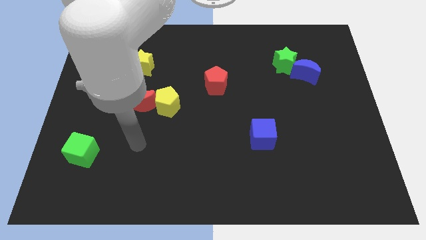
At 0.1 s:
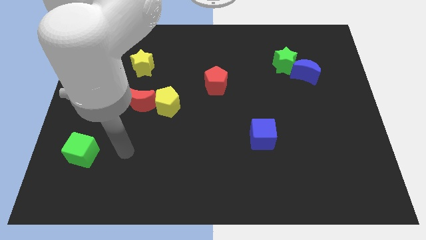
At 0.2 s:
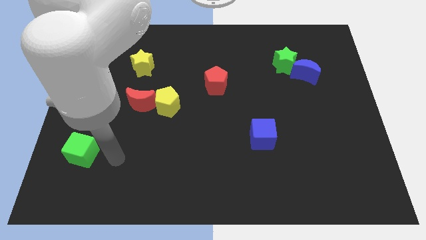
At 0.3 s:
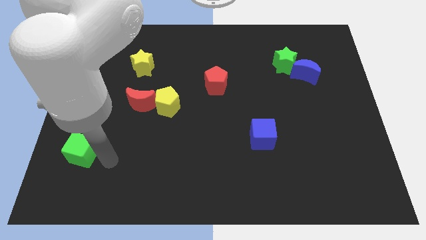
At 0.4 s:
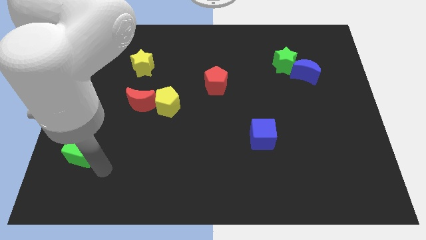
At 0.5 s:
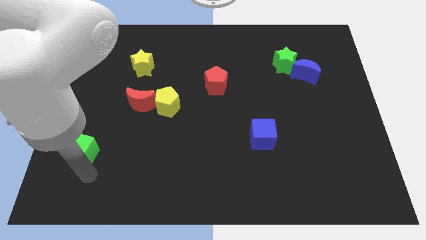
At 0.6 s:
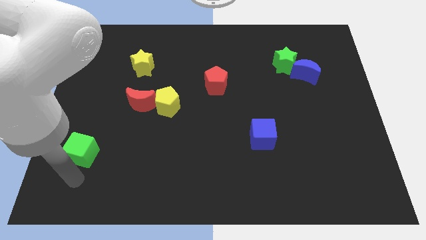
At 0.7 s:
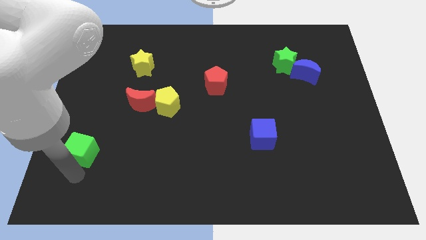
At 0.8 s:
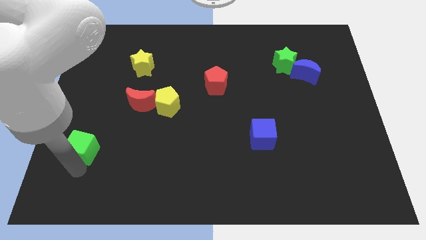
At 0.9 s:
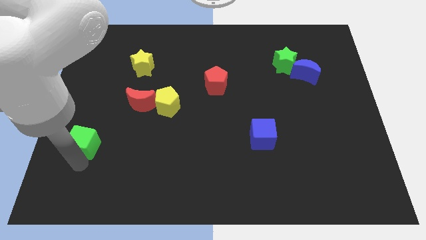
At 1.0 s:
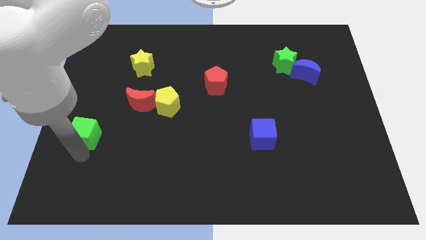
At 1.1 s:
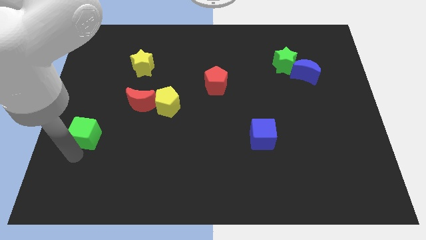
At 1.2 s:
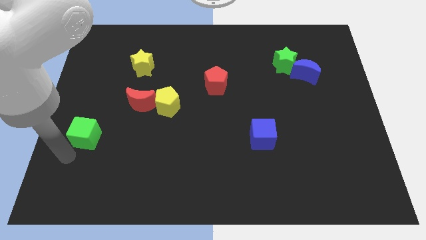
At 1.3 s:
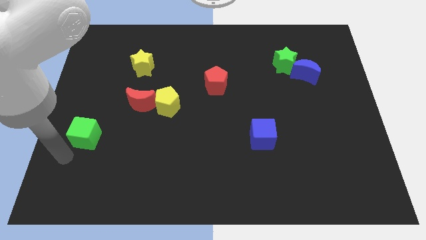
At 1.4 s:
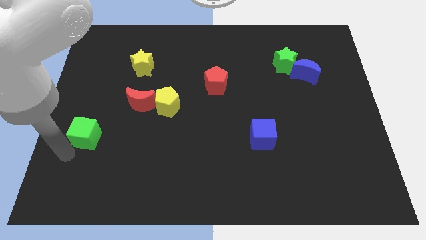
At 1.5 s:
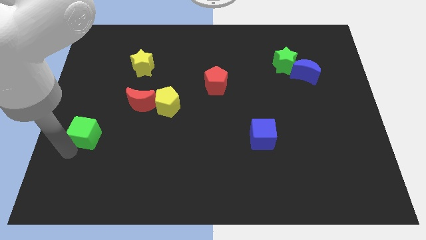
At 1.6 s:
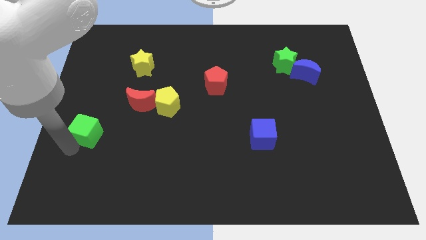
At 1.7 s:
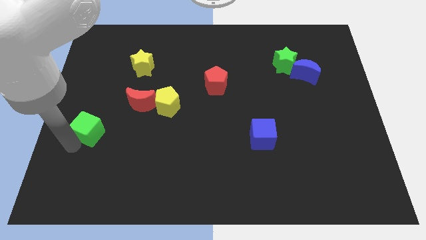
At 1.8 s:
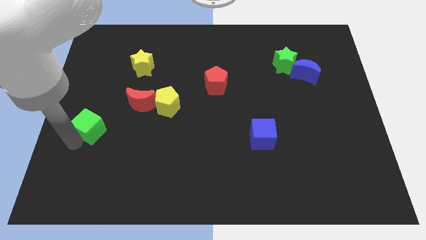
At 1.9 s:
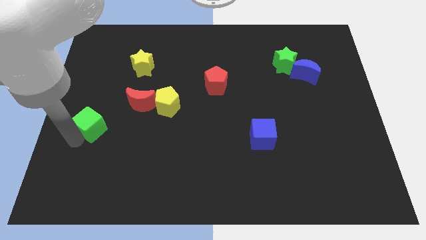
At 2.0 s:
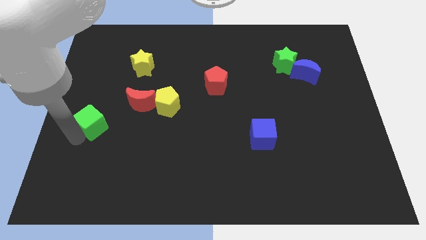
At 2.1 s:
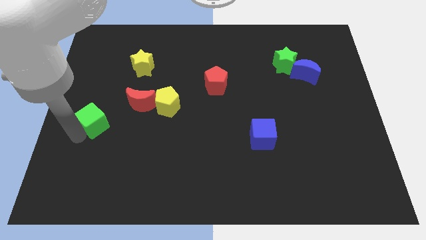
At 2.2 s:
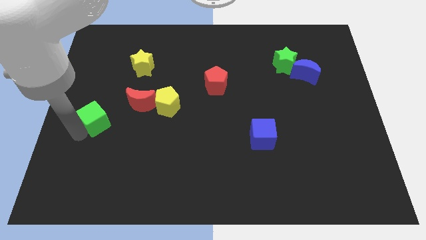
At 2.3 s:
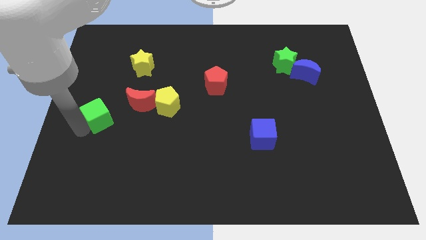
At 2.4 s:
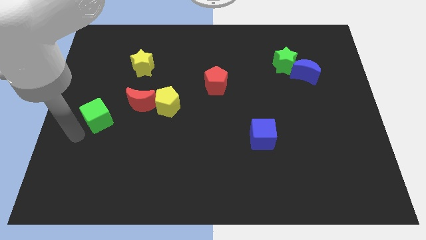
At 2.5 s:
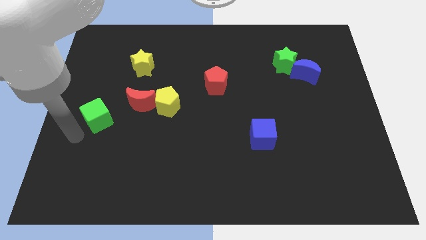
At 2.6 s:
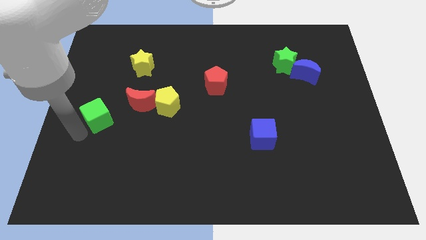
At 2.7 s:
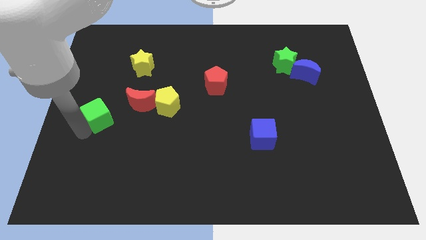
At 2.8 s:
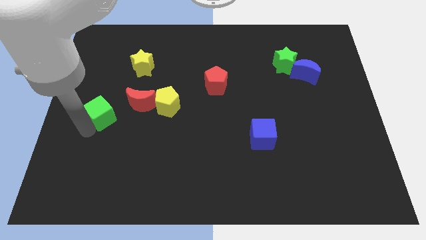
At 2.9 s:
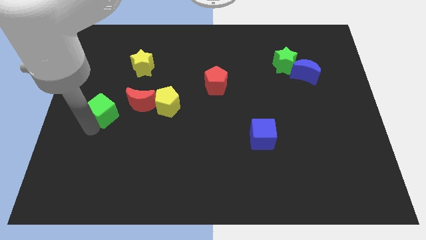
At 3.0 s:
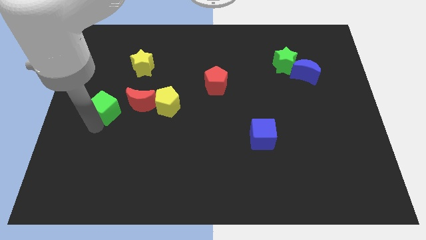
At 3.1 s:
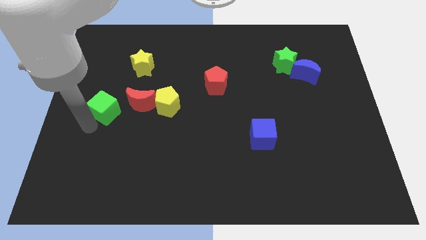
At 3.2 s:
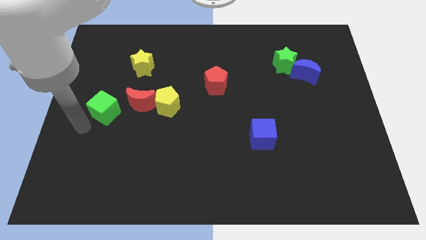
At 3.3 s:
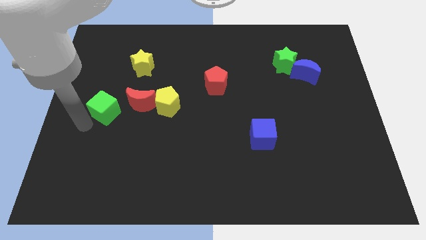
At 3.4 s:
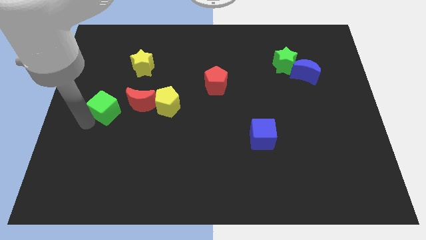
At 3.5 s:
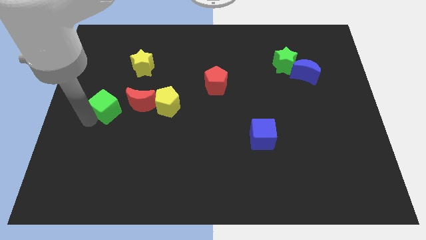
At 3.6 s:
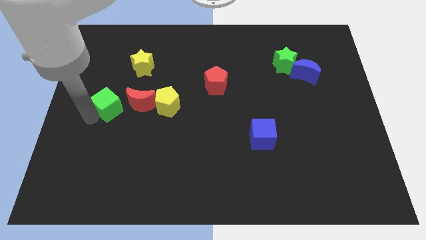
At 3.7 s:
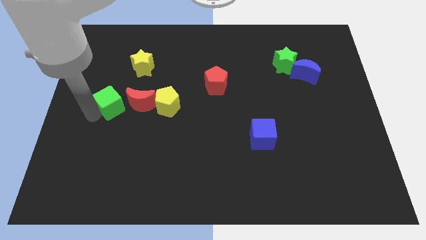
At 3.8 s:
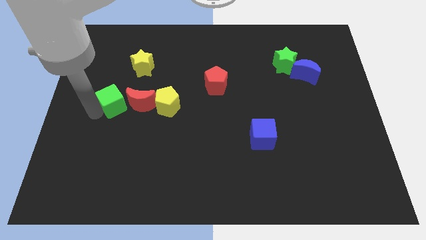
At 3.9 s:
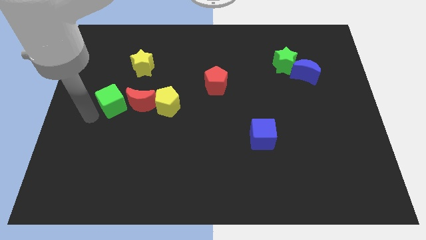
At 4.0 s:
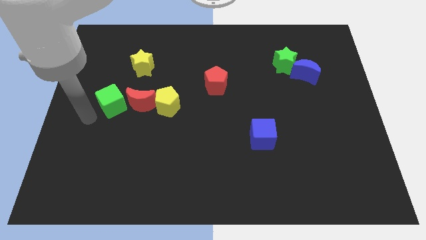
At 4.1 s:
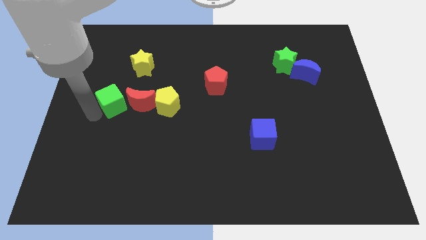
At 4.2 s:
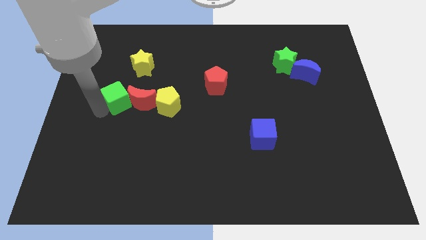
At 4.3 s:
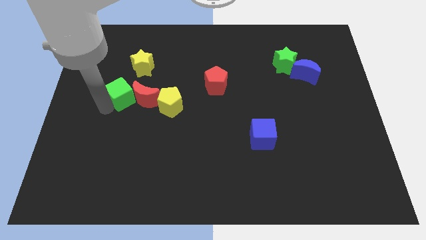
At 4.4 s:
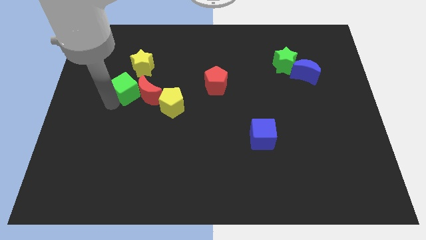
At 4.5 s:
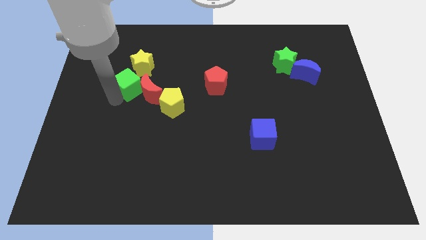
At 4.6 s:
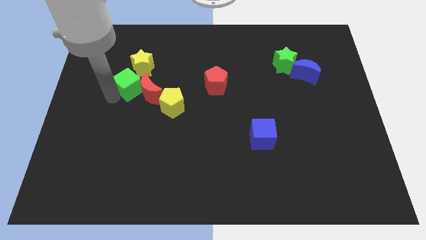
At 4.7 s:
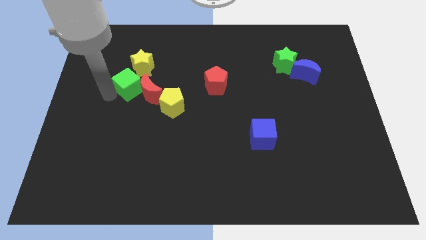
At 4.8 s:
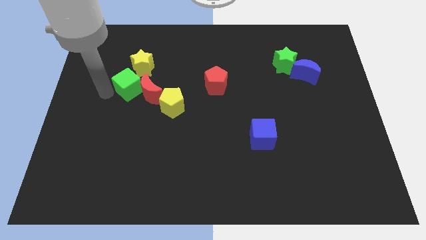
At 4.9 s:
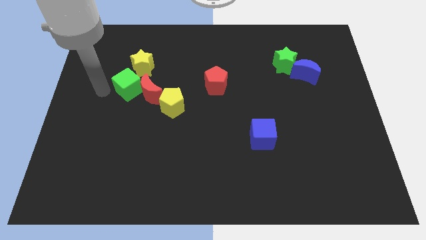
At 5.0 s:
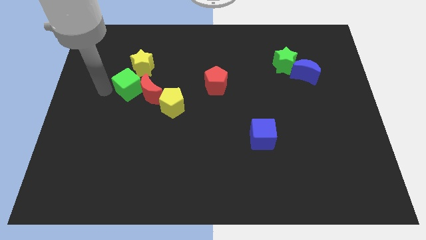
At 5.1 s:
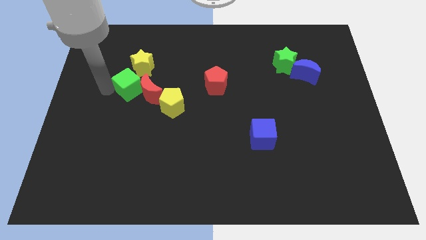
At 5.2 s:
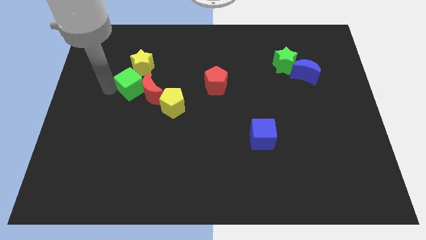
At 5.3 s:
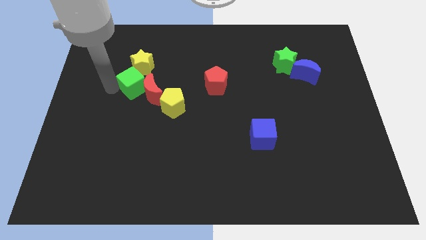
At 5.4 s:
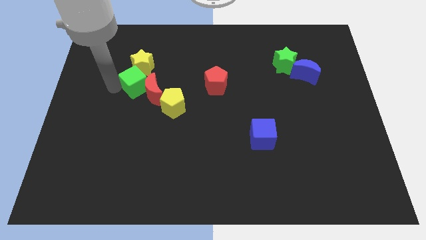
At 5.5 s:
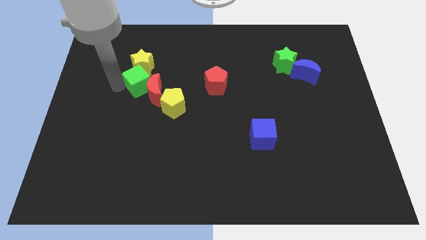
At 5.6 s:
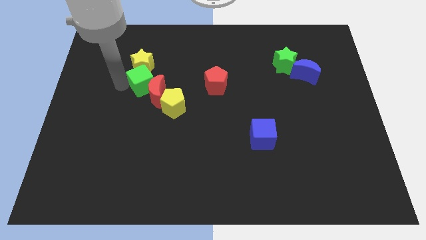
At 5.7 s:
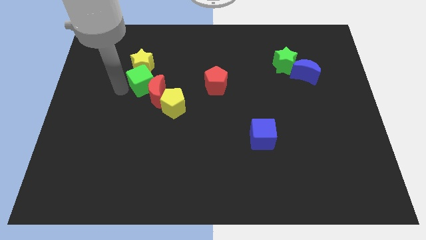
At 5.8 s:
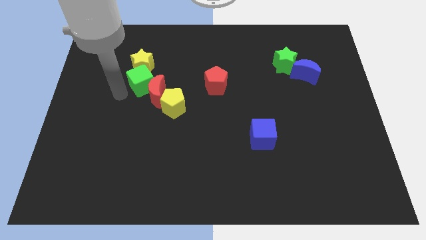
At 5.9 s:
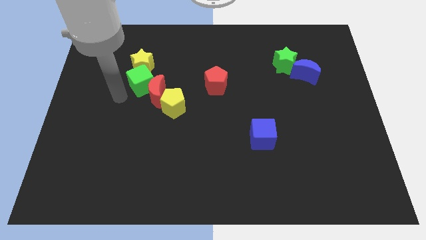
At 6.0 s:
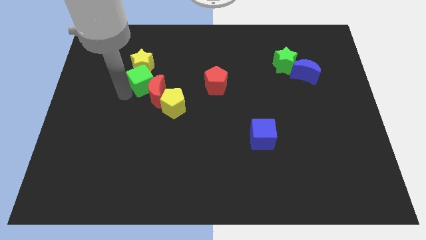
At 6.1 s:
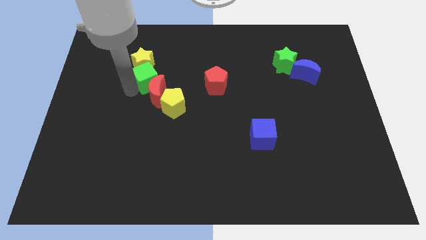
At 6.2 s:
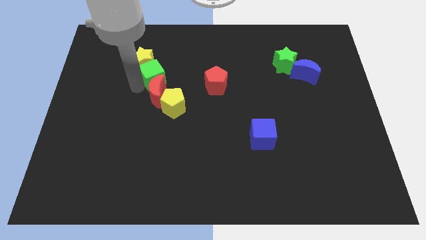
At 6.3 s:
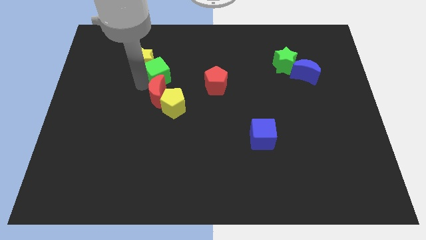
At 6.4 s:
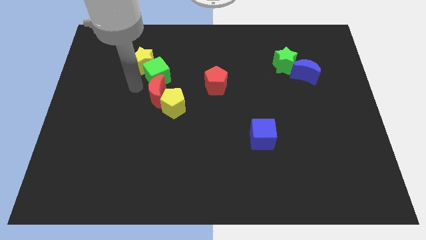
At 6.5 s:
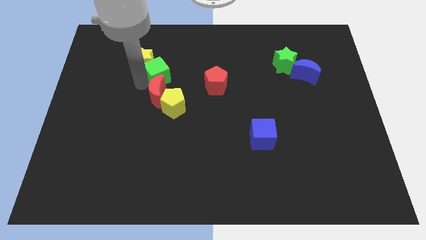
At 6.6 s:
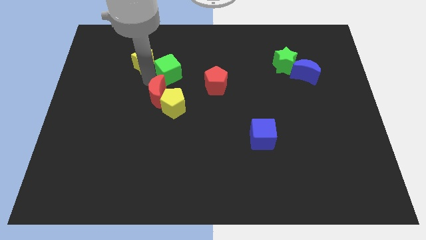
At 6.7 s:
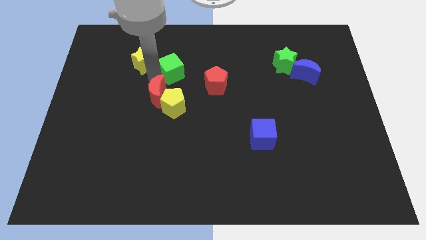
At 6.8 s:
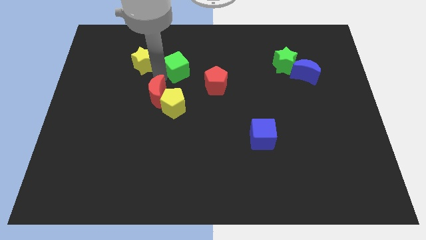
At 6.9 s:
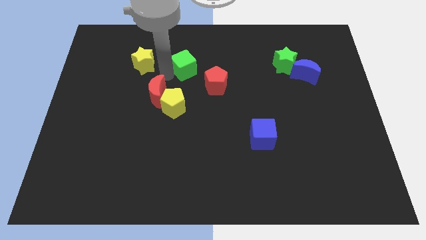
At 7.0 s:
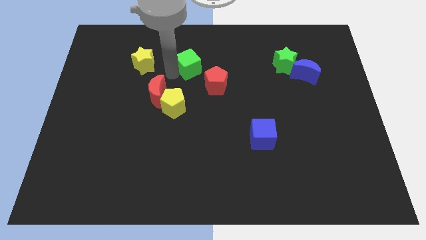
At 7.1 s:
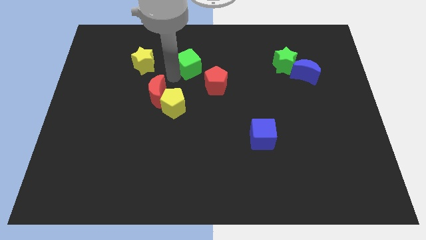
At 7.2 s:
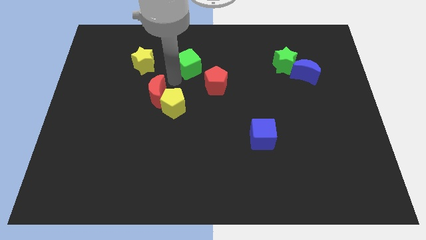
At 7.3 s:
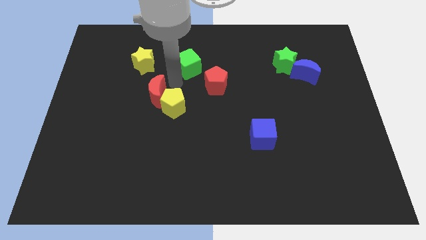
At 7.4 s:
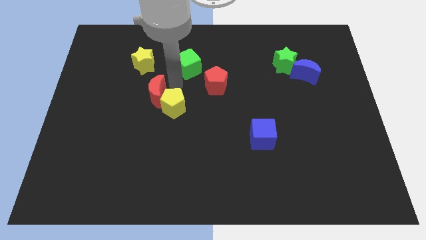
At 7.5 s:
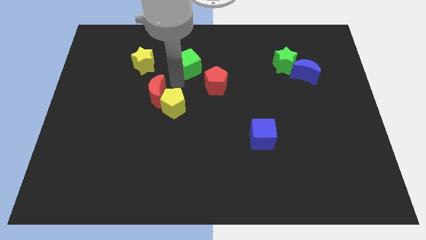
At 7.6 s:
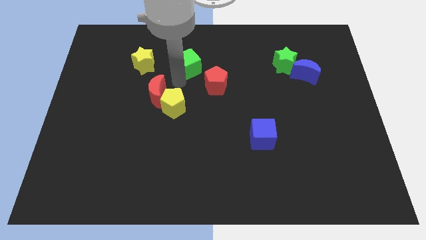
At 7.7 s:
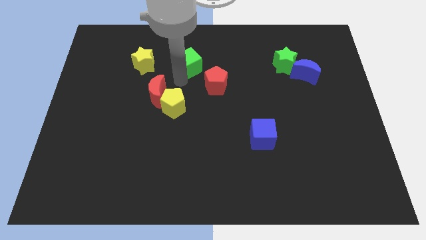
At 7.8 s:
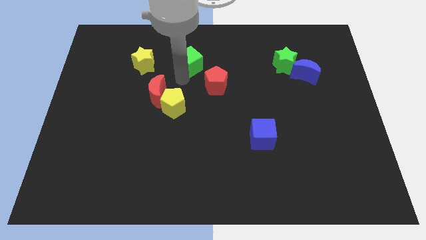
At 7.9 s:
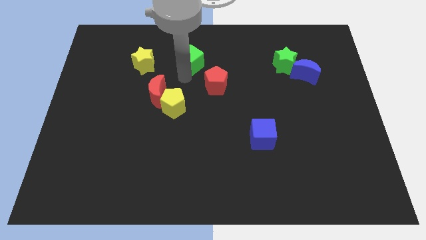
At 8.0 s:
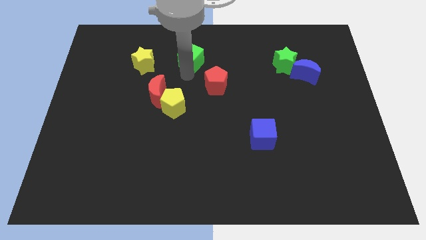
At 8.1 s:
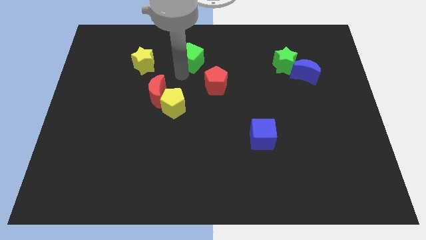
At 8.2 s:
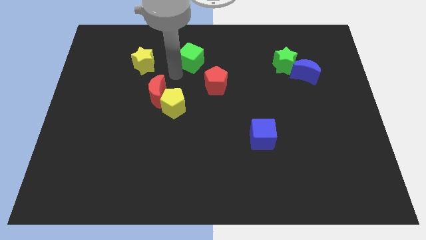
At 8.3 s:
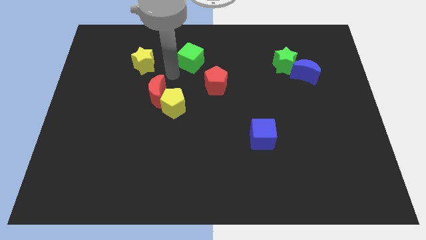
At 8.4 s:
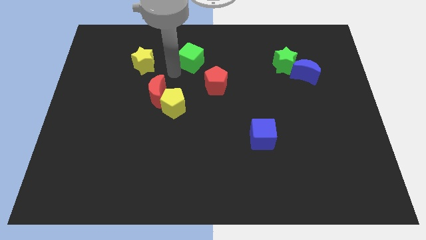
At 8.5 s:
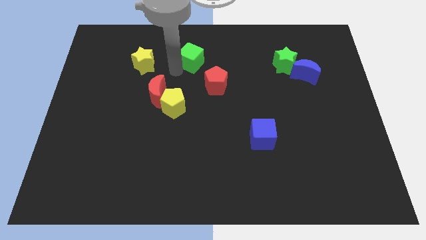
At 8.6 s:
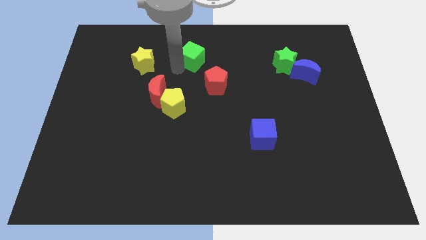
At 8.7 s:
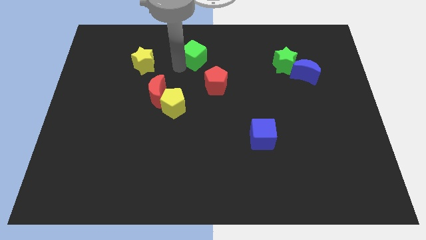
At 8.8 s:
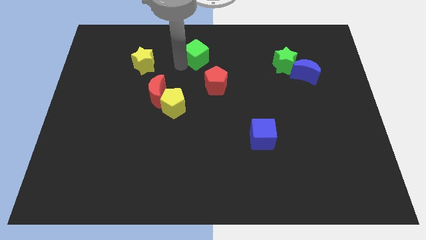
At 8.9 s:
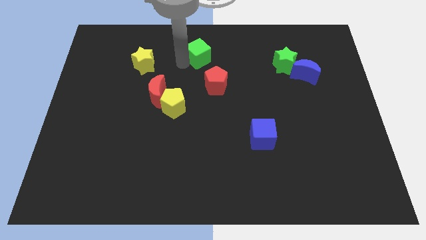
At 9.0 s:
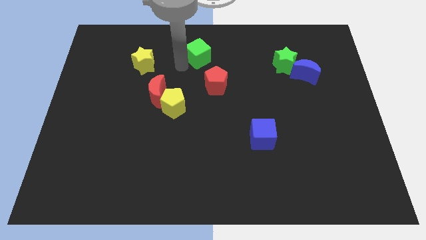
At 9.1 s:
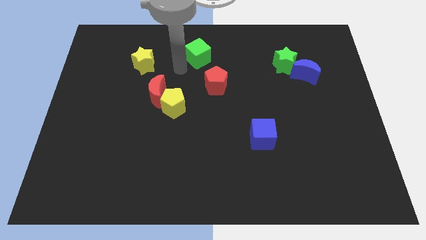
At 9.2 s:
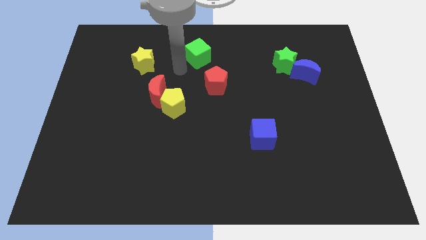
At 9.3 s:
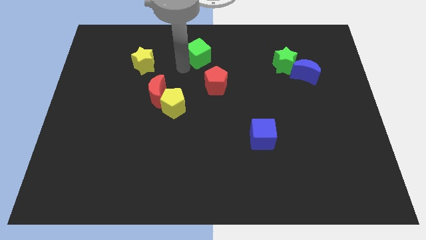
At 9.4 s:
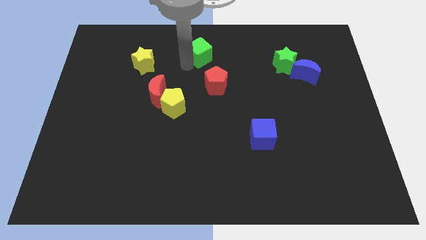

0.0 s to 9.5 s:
slide the green cube to the top side
